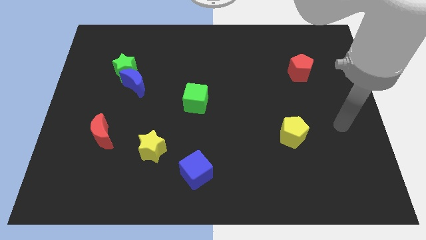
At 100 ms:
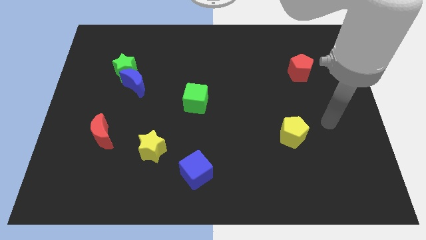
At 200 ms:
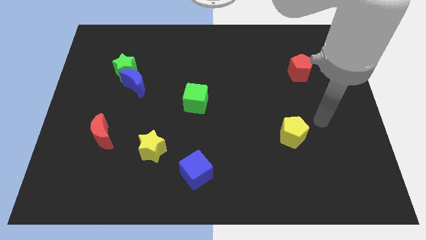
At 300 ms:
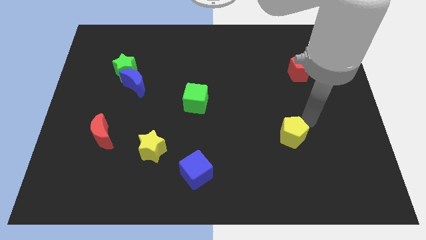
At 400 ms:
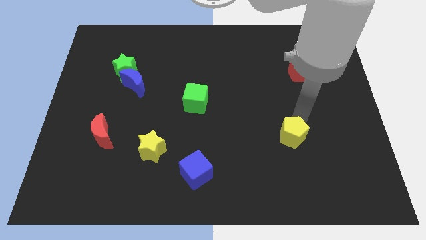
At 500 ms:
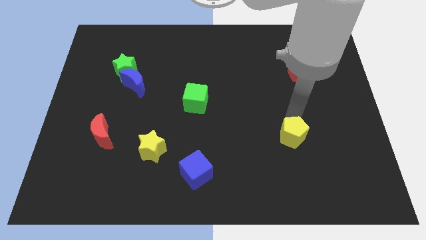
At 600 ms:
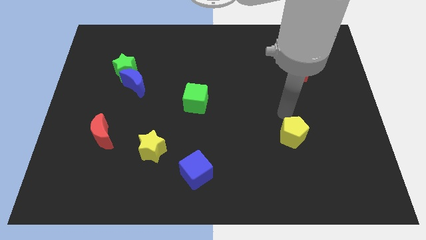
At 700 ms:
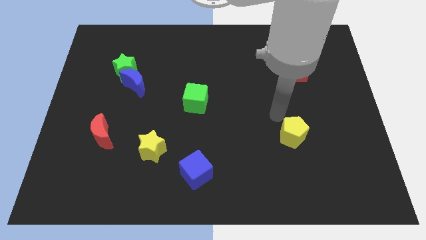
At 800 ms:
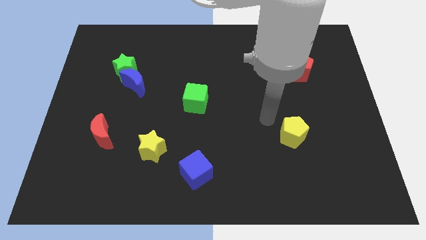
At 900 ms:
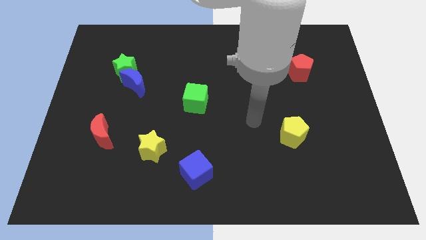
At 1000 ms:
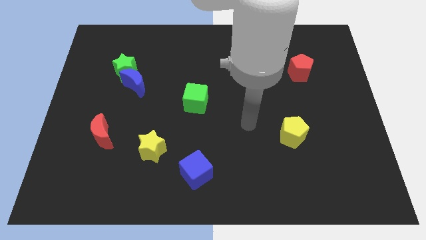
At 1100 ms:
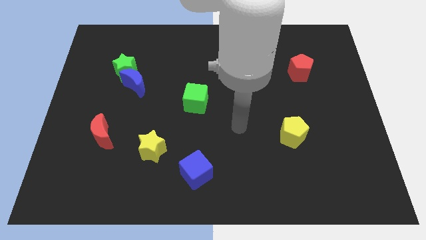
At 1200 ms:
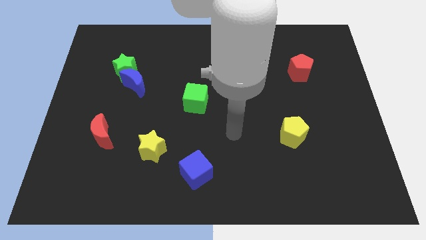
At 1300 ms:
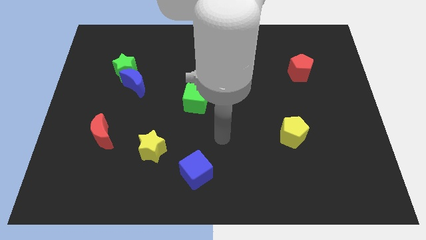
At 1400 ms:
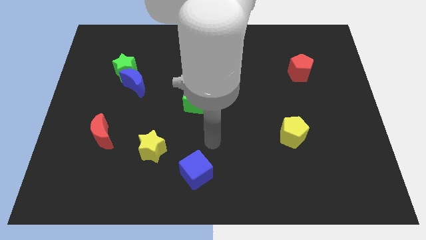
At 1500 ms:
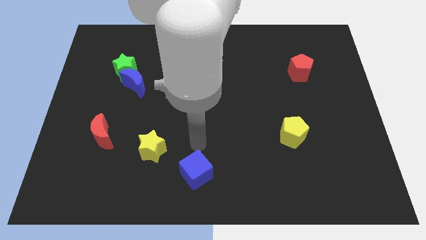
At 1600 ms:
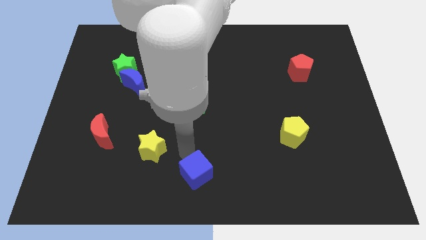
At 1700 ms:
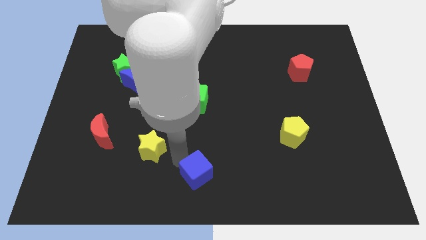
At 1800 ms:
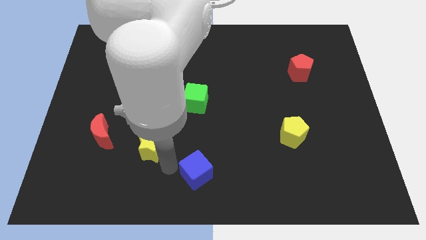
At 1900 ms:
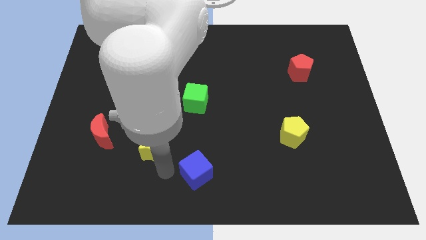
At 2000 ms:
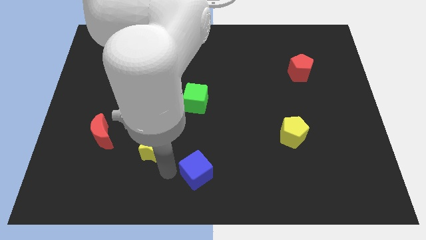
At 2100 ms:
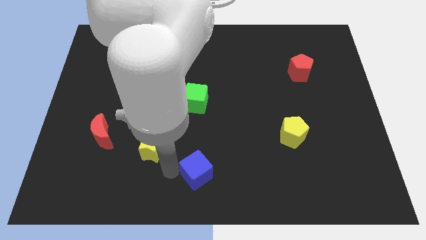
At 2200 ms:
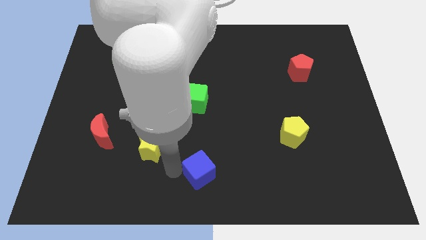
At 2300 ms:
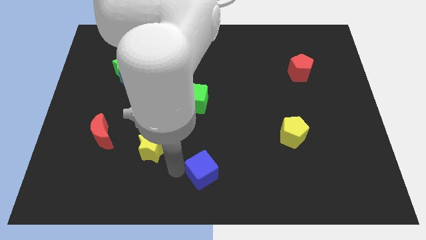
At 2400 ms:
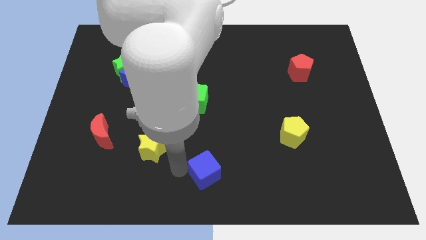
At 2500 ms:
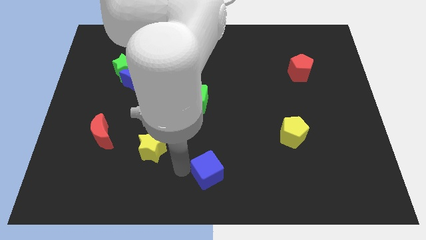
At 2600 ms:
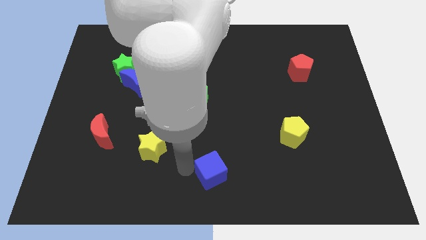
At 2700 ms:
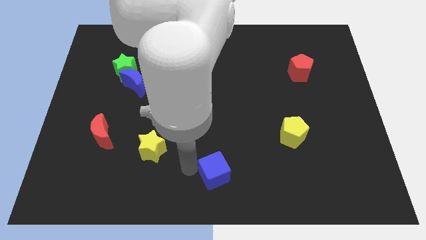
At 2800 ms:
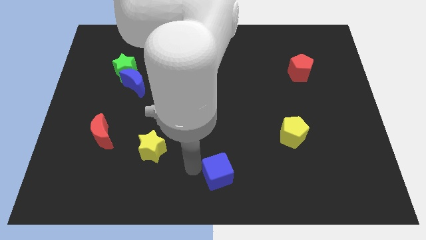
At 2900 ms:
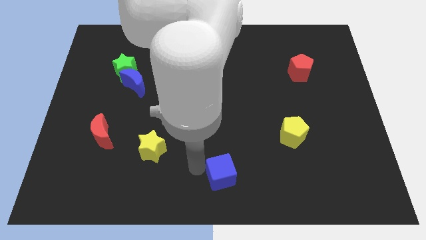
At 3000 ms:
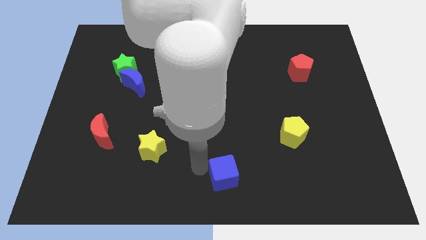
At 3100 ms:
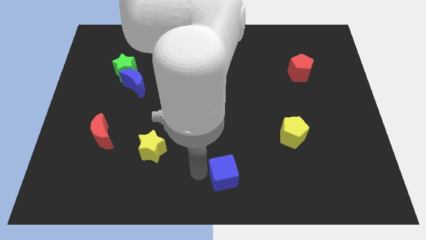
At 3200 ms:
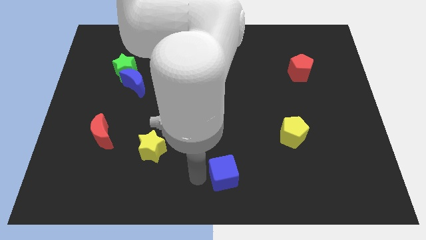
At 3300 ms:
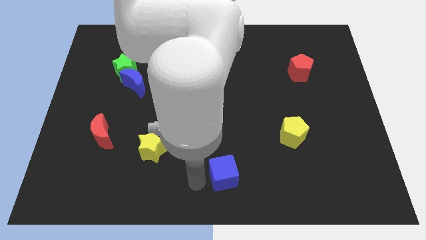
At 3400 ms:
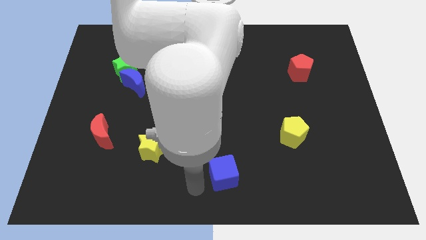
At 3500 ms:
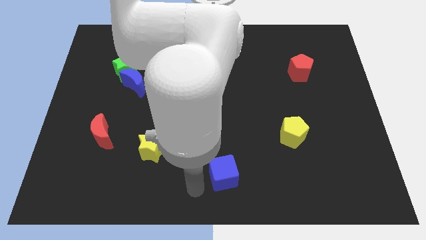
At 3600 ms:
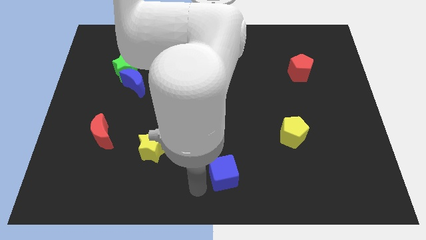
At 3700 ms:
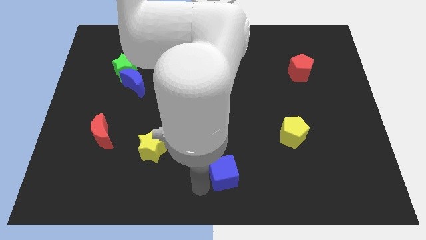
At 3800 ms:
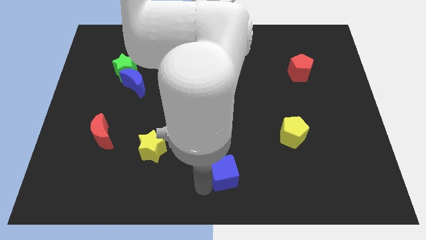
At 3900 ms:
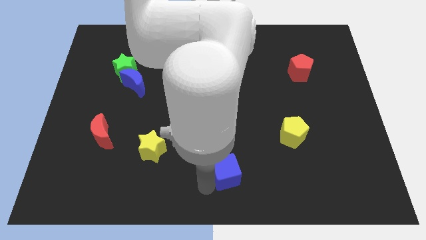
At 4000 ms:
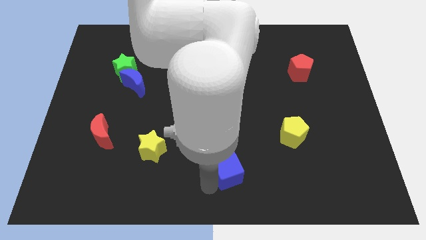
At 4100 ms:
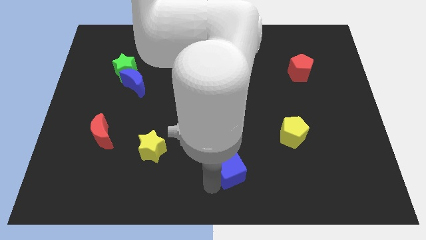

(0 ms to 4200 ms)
push the blue cube slightly right

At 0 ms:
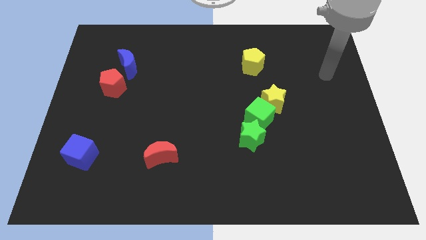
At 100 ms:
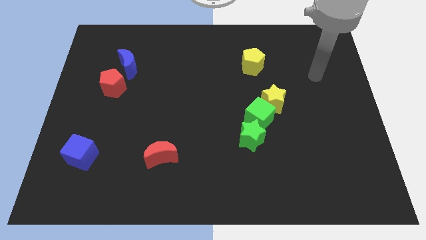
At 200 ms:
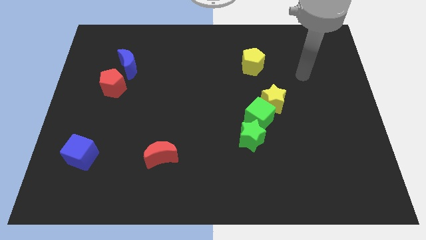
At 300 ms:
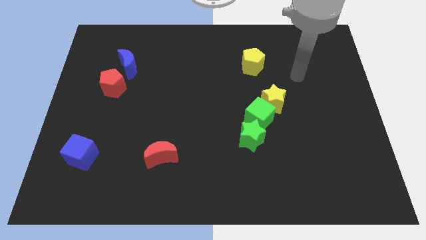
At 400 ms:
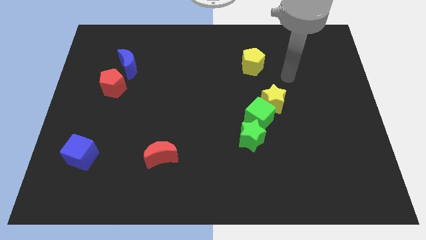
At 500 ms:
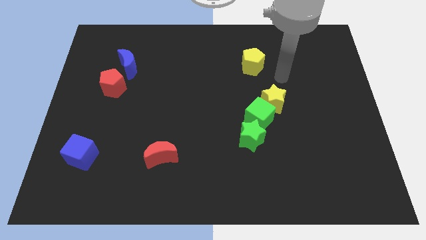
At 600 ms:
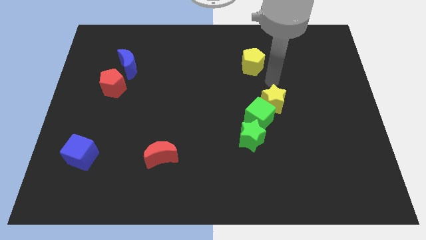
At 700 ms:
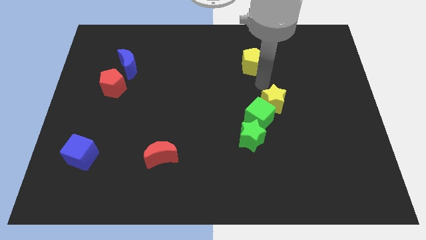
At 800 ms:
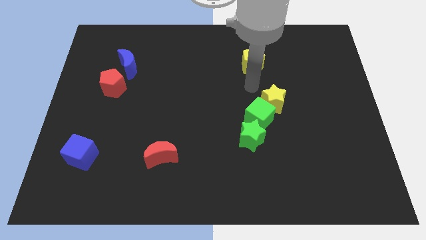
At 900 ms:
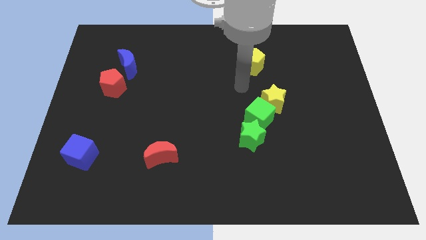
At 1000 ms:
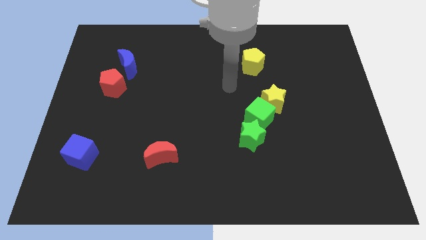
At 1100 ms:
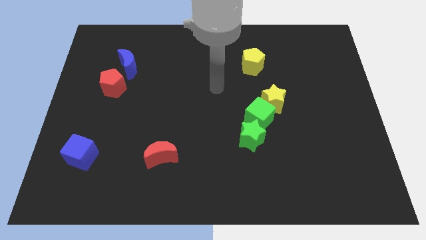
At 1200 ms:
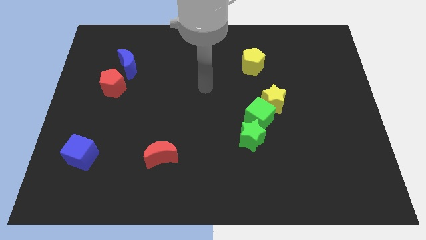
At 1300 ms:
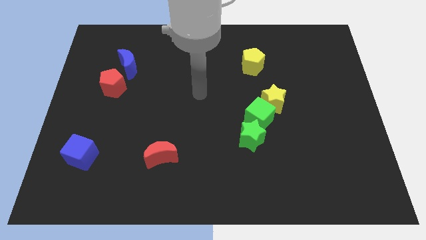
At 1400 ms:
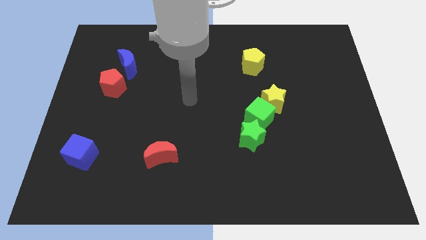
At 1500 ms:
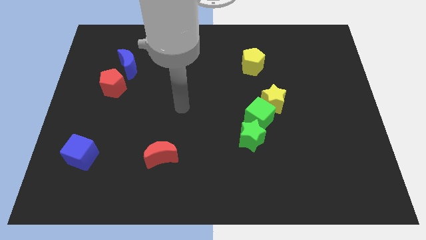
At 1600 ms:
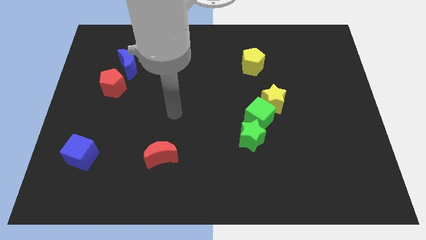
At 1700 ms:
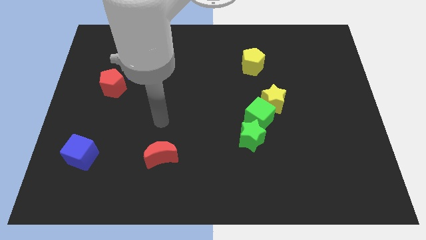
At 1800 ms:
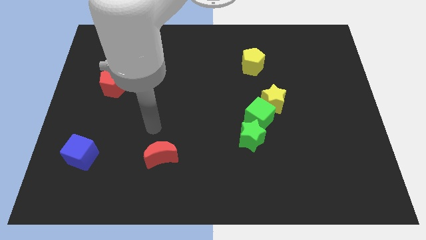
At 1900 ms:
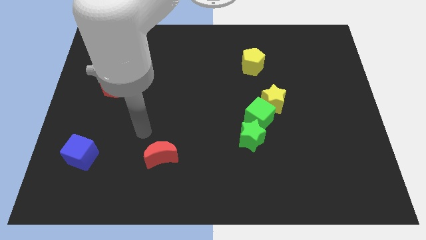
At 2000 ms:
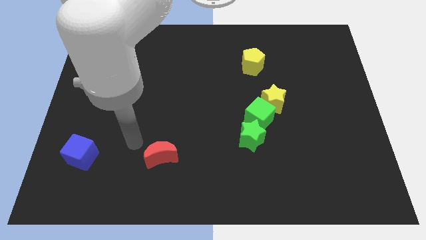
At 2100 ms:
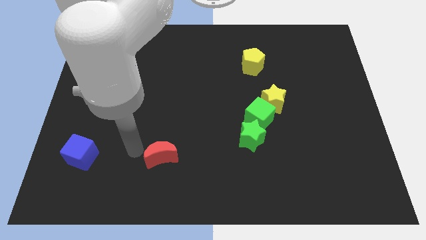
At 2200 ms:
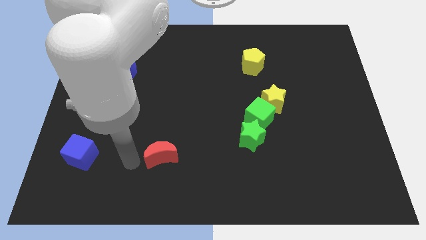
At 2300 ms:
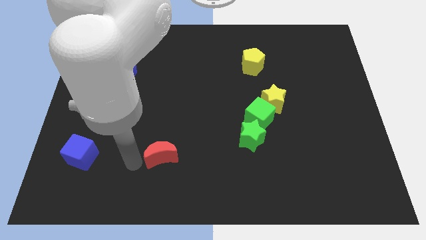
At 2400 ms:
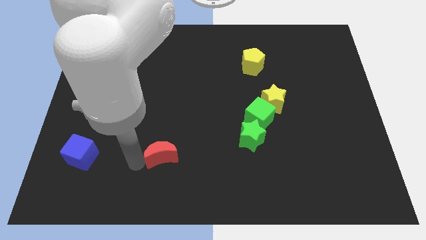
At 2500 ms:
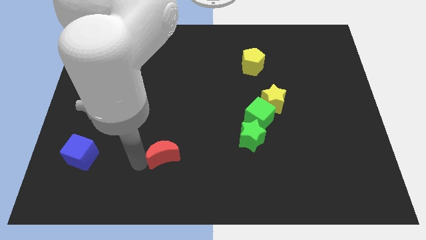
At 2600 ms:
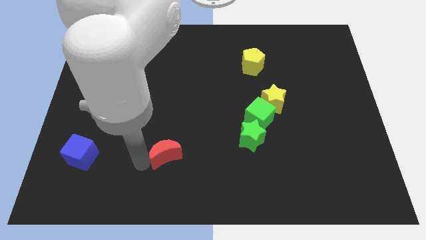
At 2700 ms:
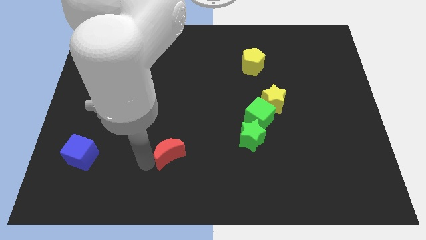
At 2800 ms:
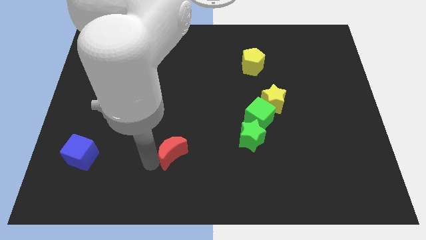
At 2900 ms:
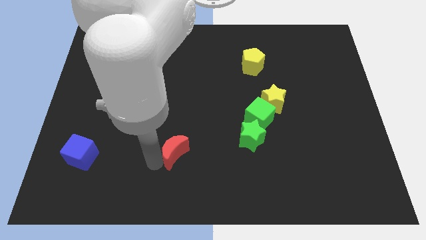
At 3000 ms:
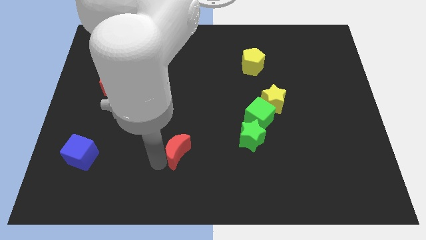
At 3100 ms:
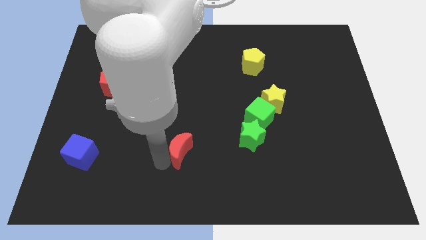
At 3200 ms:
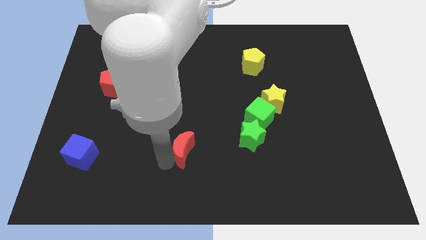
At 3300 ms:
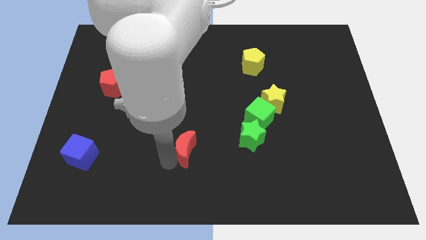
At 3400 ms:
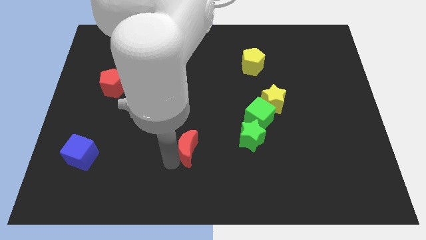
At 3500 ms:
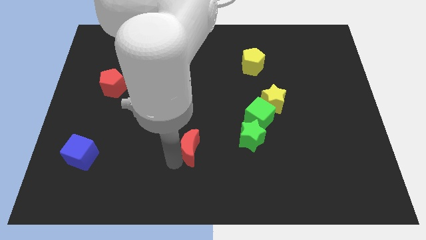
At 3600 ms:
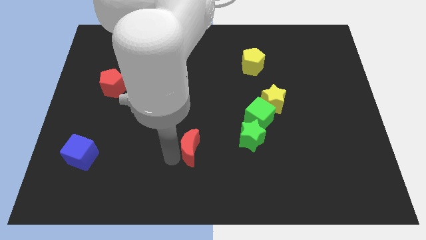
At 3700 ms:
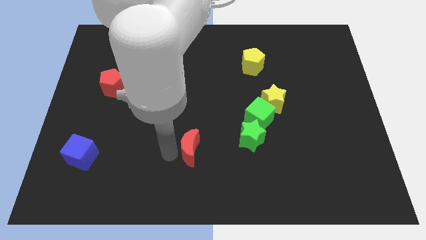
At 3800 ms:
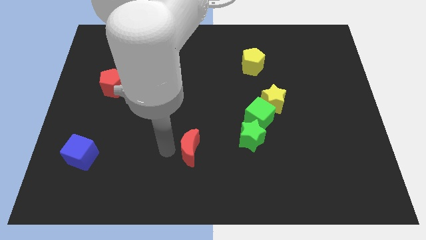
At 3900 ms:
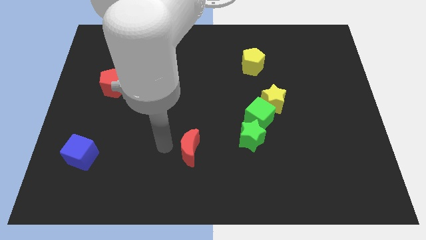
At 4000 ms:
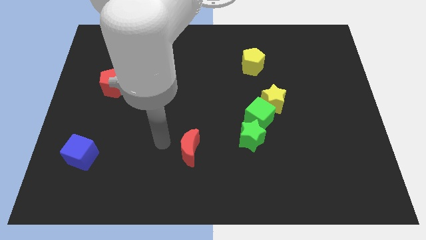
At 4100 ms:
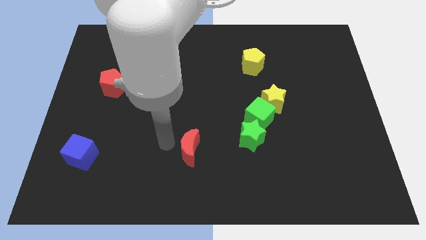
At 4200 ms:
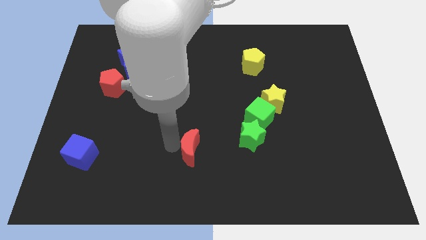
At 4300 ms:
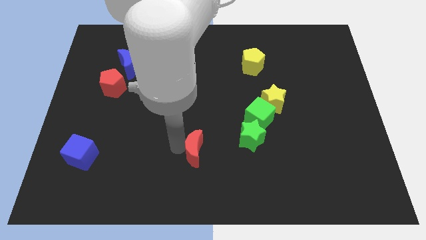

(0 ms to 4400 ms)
slightly move the red moon to the right
